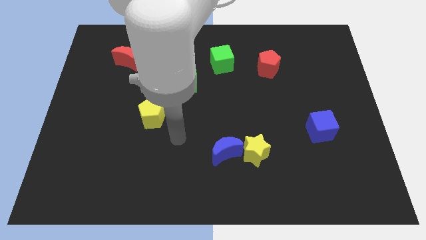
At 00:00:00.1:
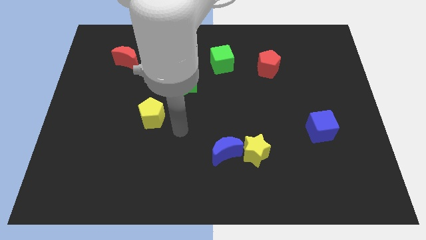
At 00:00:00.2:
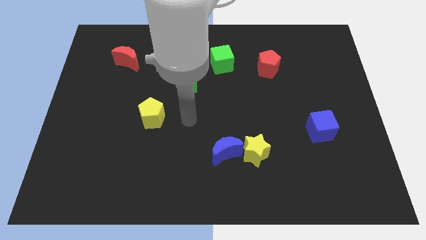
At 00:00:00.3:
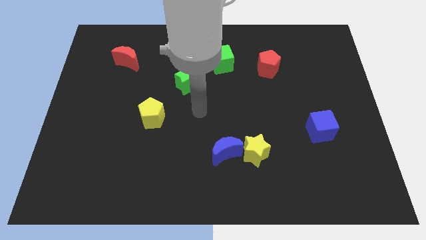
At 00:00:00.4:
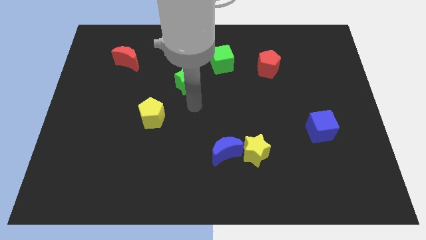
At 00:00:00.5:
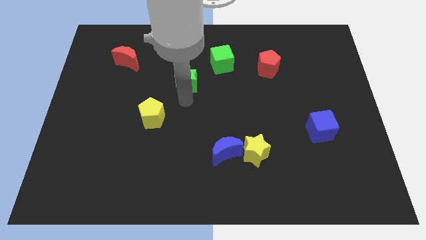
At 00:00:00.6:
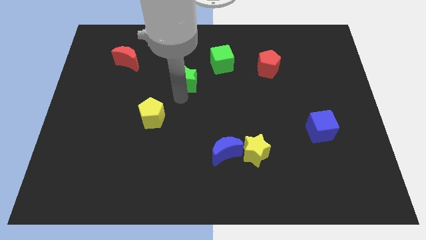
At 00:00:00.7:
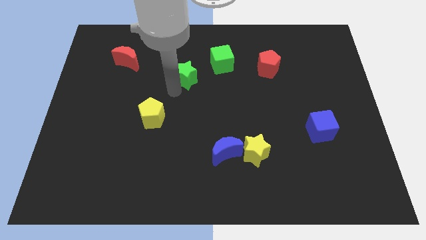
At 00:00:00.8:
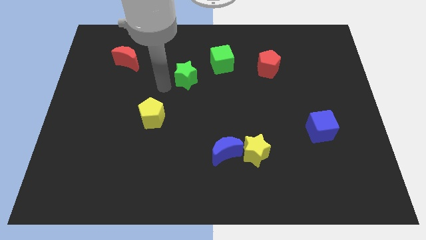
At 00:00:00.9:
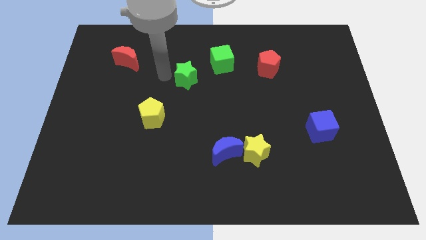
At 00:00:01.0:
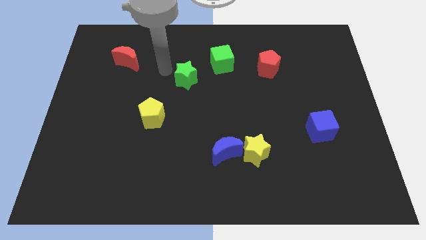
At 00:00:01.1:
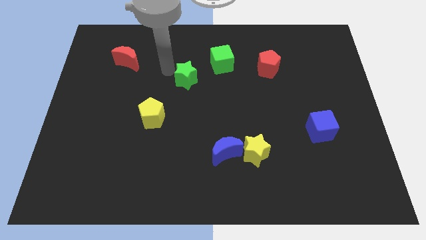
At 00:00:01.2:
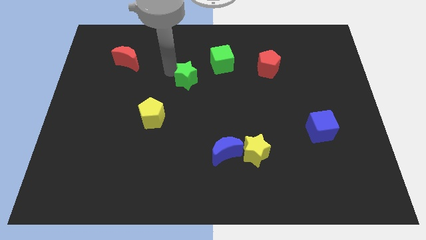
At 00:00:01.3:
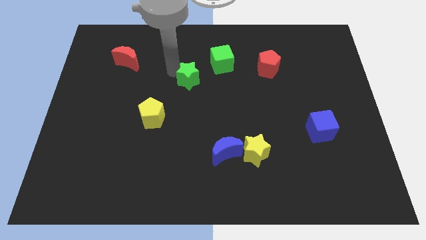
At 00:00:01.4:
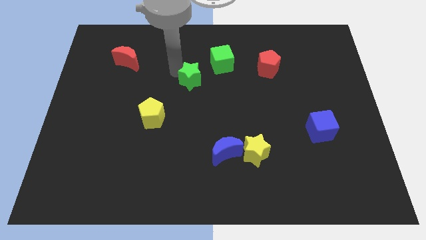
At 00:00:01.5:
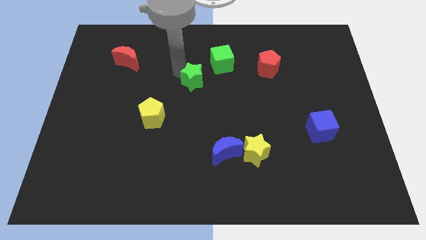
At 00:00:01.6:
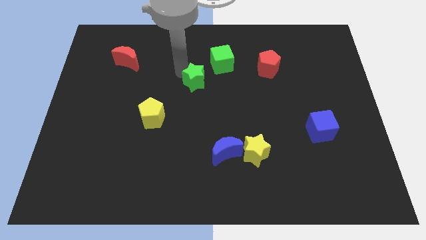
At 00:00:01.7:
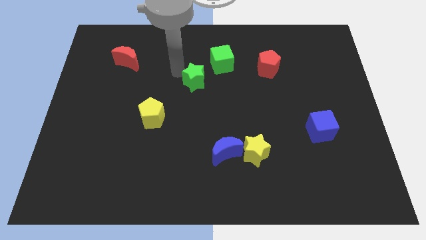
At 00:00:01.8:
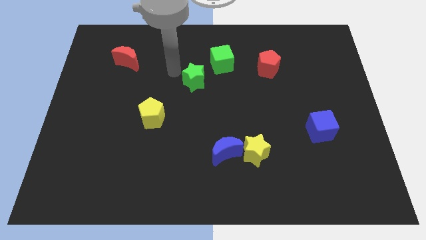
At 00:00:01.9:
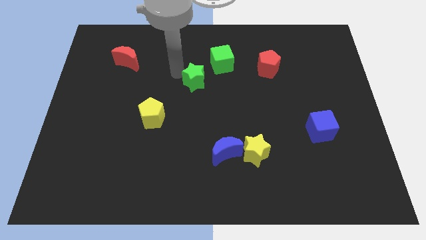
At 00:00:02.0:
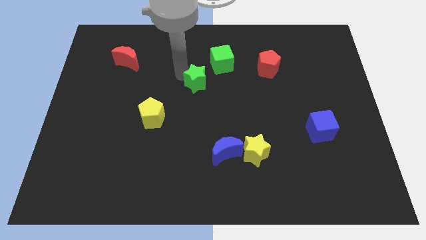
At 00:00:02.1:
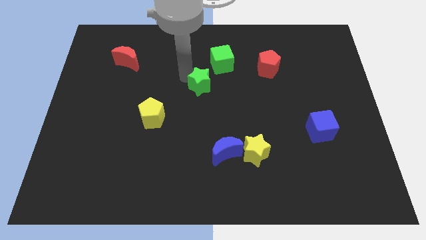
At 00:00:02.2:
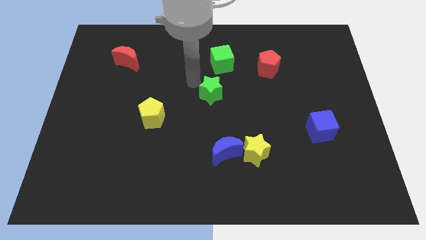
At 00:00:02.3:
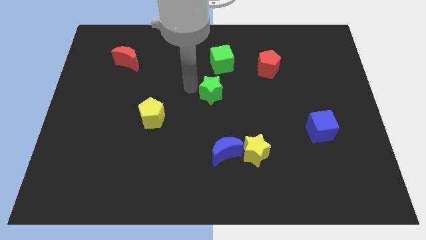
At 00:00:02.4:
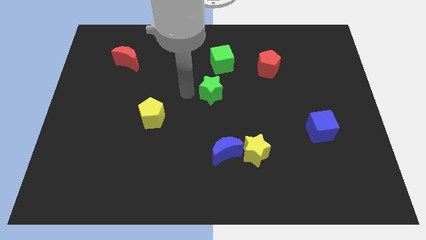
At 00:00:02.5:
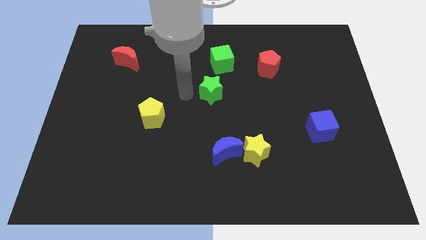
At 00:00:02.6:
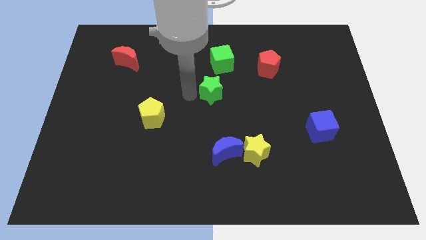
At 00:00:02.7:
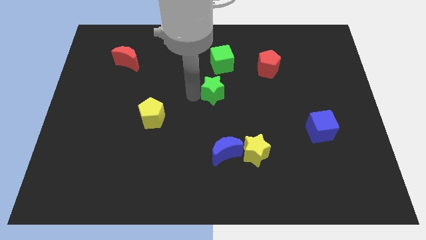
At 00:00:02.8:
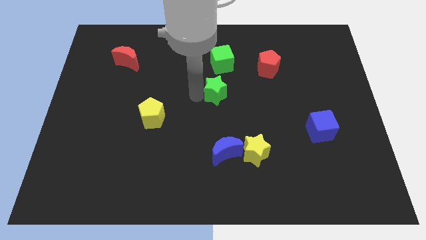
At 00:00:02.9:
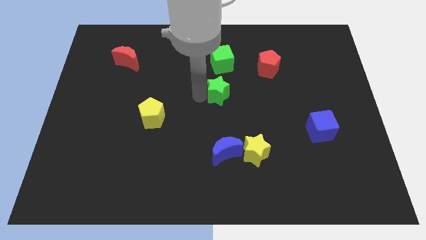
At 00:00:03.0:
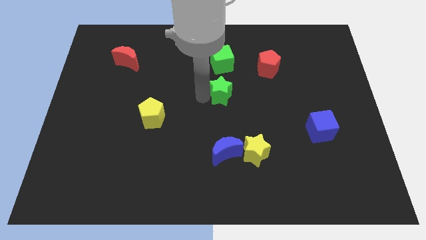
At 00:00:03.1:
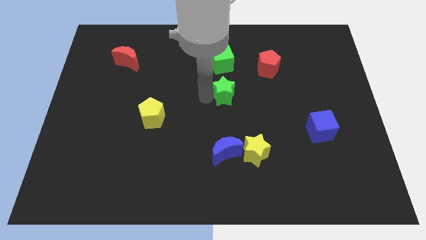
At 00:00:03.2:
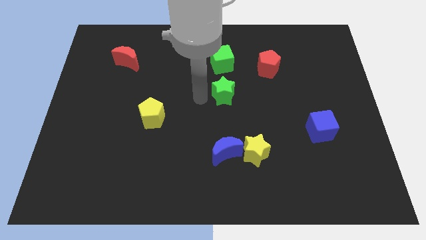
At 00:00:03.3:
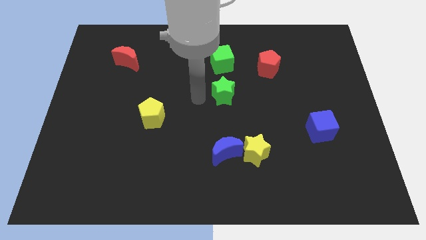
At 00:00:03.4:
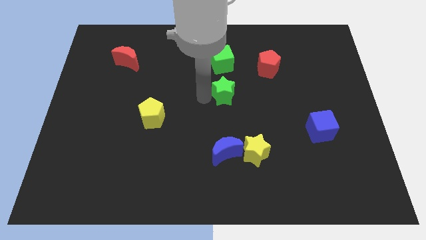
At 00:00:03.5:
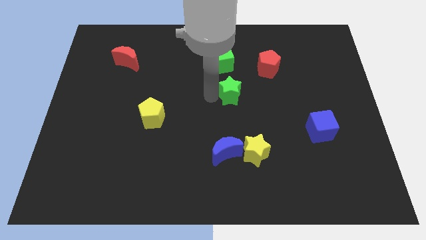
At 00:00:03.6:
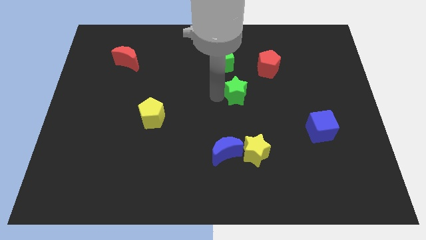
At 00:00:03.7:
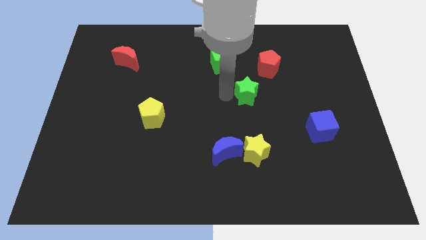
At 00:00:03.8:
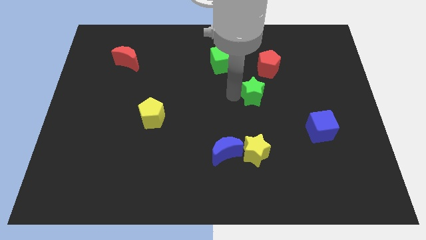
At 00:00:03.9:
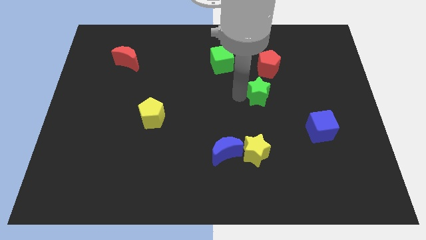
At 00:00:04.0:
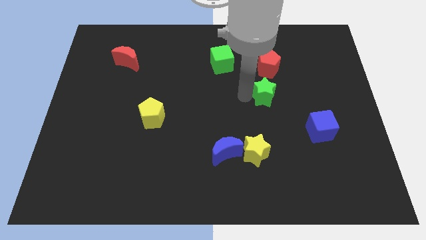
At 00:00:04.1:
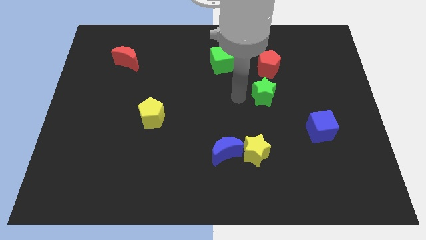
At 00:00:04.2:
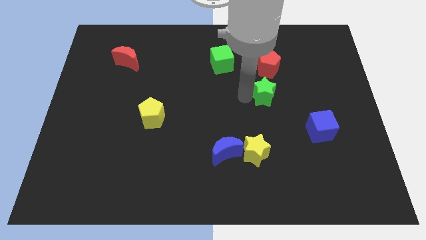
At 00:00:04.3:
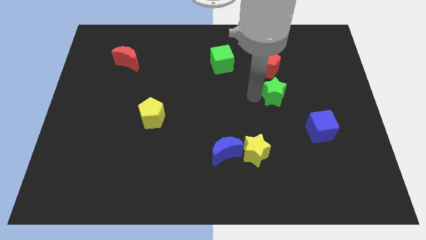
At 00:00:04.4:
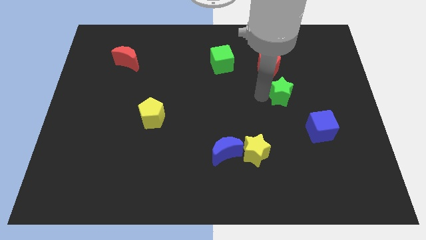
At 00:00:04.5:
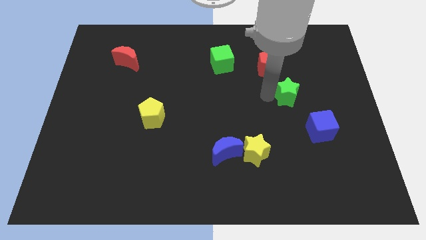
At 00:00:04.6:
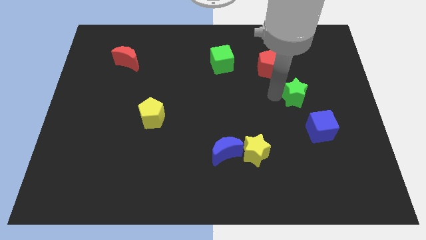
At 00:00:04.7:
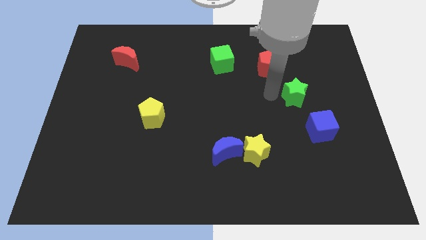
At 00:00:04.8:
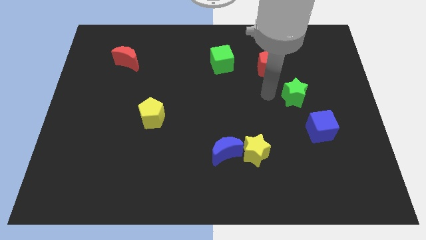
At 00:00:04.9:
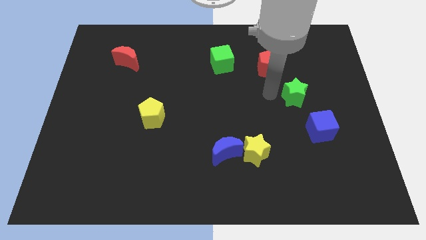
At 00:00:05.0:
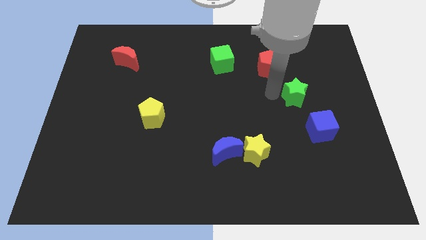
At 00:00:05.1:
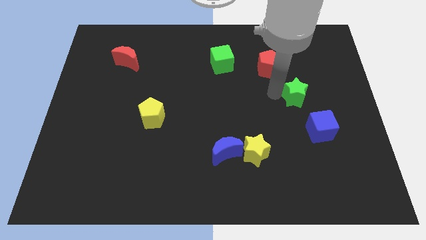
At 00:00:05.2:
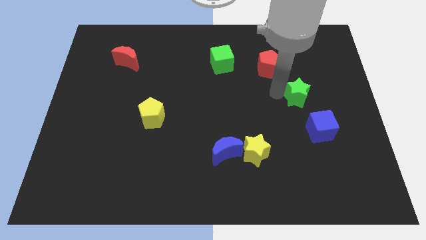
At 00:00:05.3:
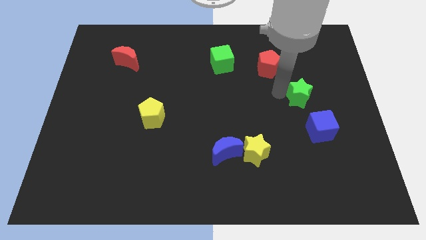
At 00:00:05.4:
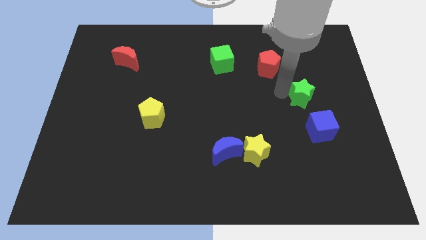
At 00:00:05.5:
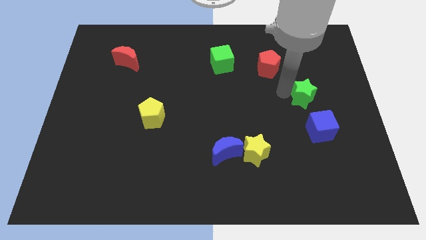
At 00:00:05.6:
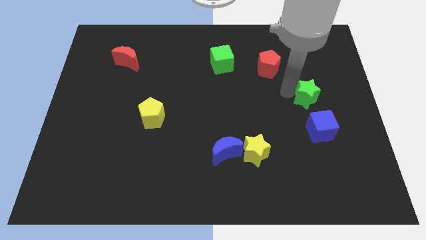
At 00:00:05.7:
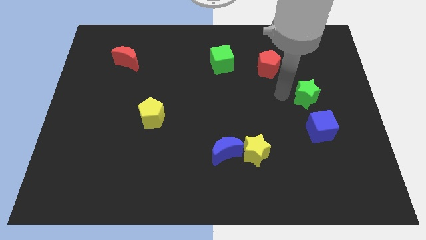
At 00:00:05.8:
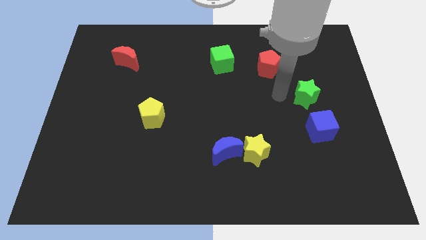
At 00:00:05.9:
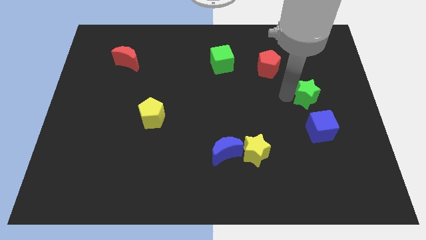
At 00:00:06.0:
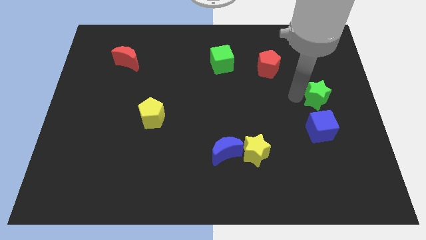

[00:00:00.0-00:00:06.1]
move the green star to the right side of the board
